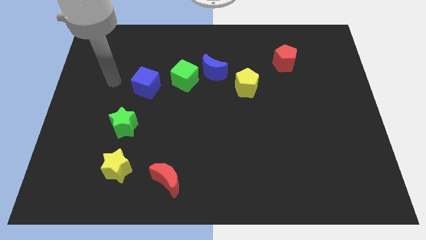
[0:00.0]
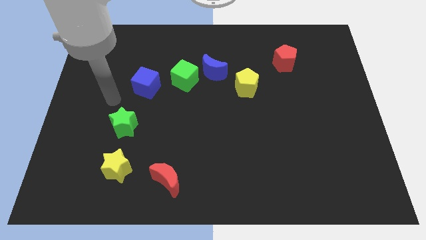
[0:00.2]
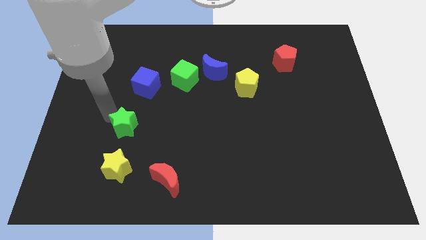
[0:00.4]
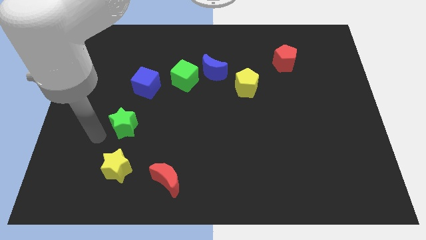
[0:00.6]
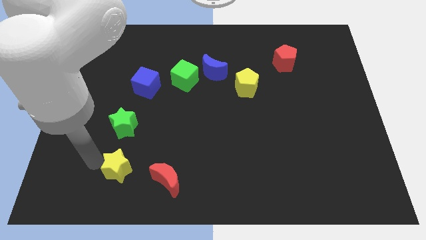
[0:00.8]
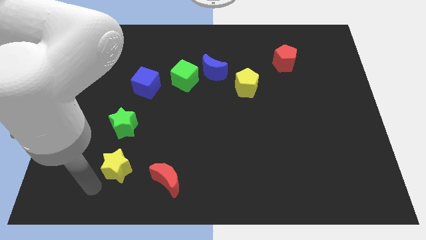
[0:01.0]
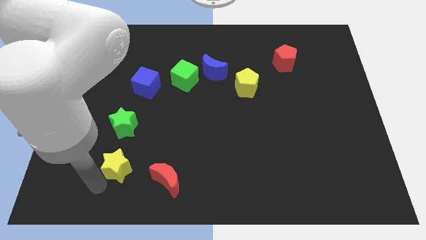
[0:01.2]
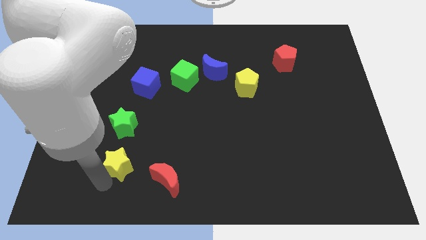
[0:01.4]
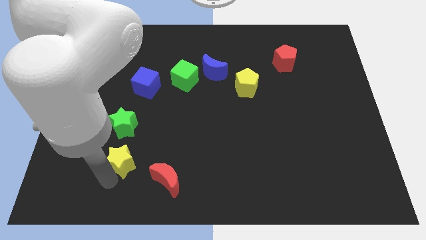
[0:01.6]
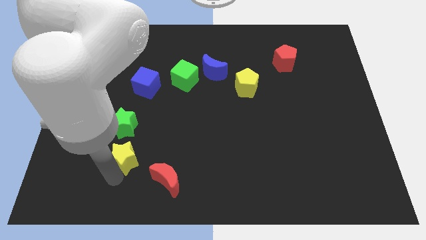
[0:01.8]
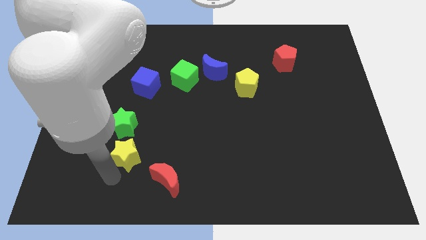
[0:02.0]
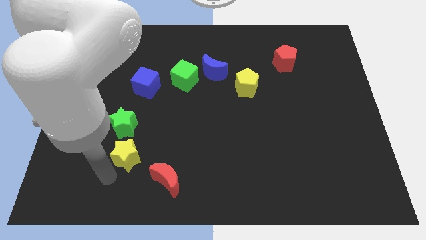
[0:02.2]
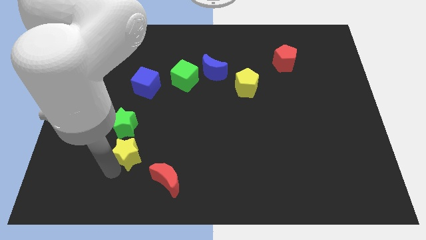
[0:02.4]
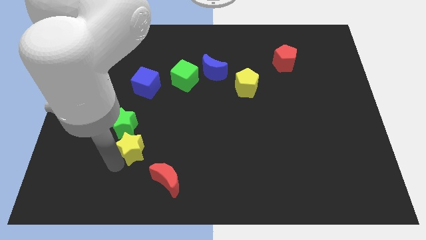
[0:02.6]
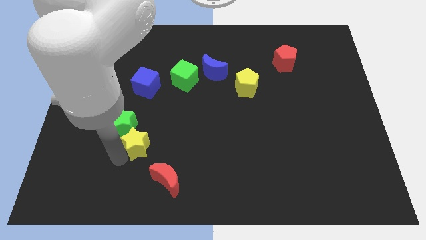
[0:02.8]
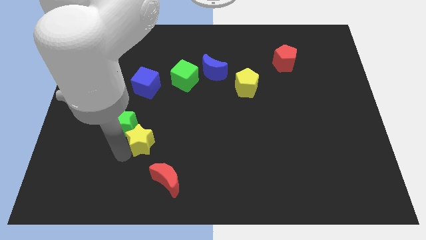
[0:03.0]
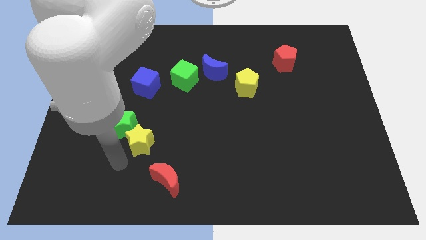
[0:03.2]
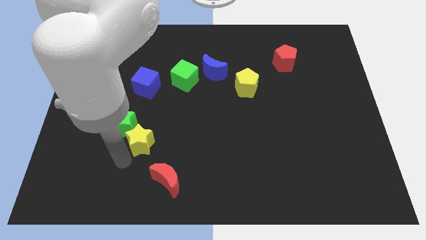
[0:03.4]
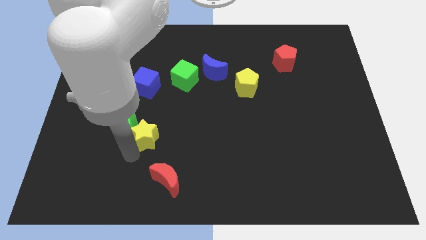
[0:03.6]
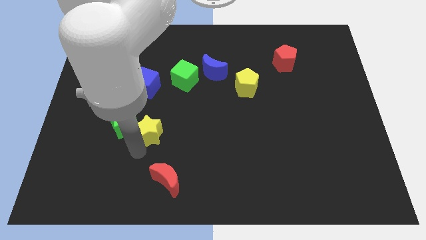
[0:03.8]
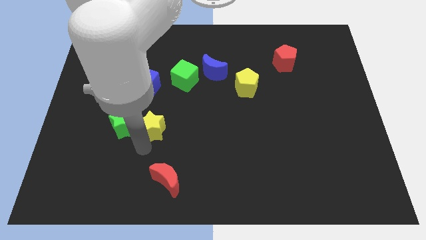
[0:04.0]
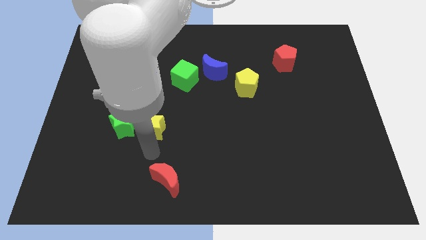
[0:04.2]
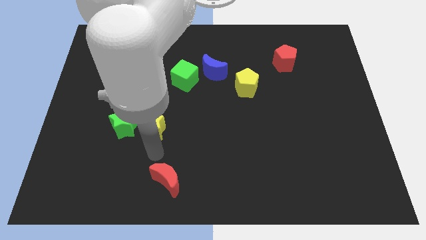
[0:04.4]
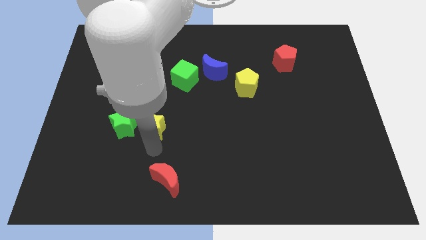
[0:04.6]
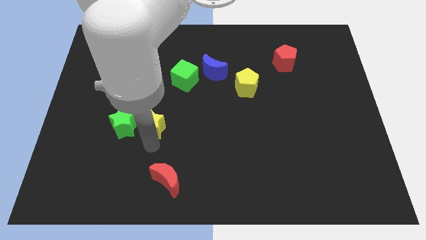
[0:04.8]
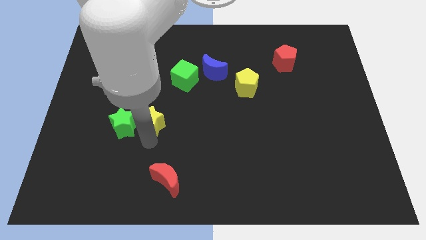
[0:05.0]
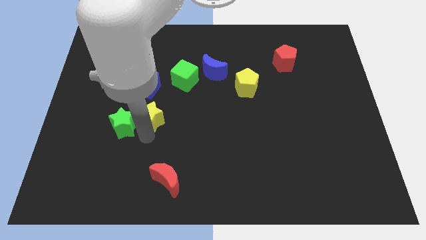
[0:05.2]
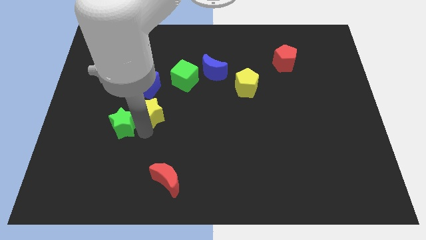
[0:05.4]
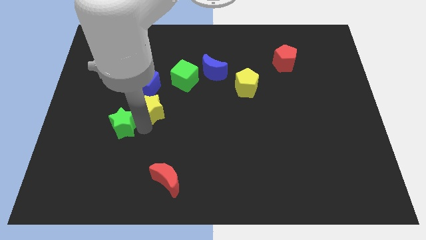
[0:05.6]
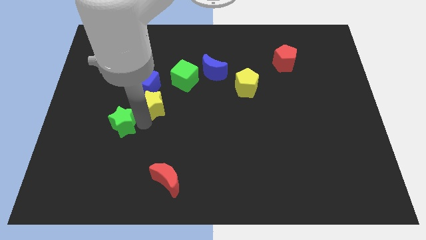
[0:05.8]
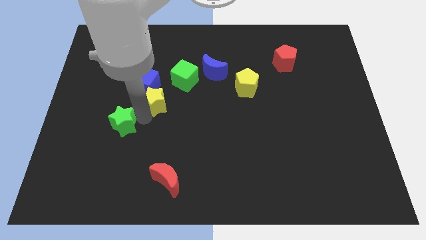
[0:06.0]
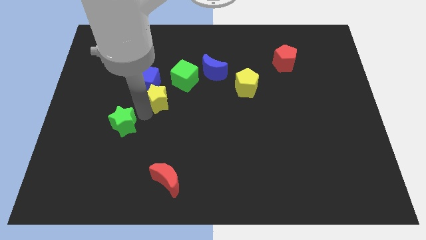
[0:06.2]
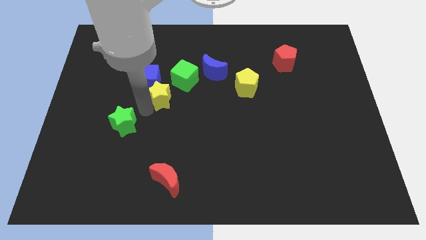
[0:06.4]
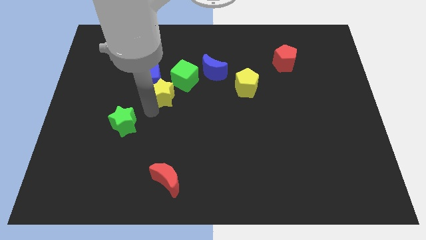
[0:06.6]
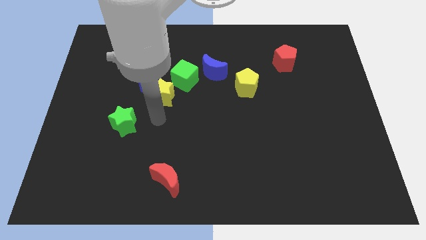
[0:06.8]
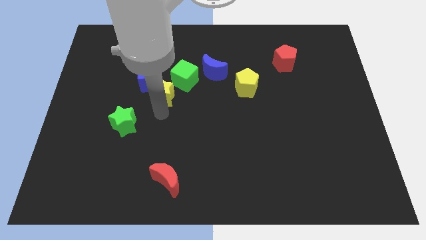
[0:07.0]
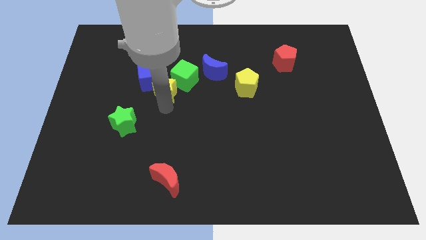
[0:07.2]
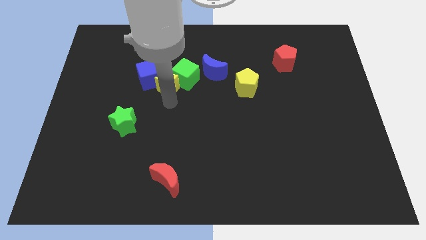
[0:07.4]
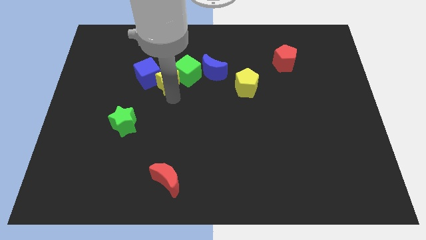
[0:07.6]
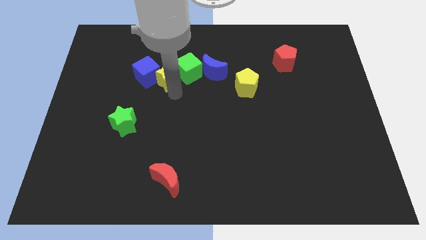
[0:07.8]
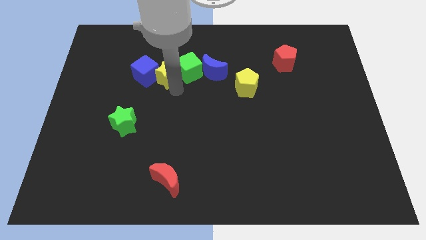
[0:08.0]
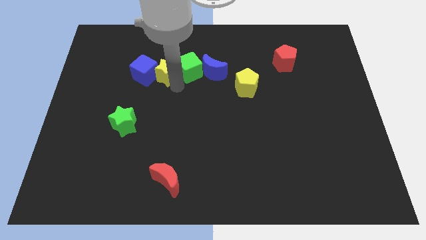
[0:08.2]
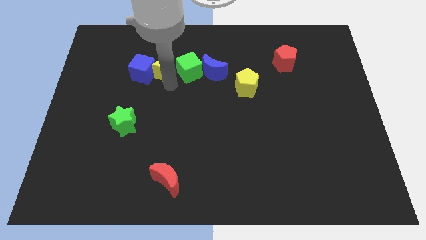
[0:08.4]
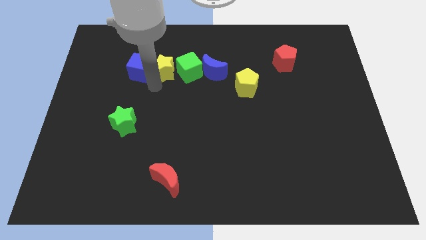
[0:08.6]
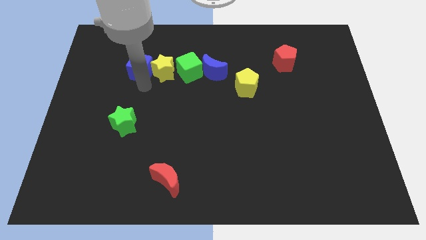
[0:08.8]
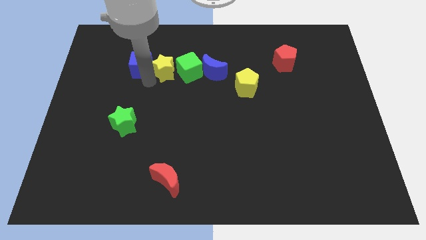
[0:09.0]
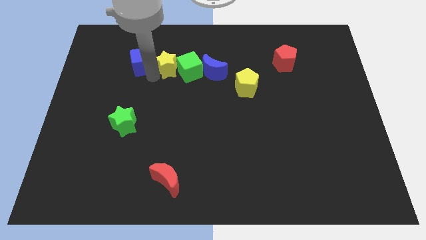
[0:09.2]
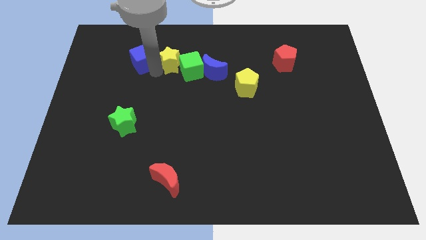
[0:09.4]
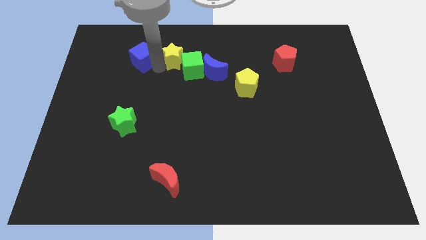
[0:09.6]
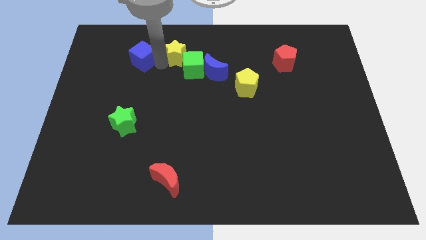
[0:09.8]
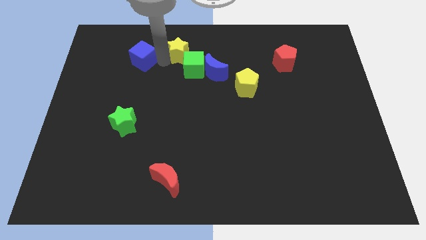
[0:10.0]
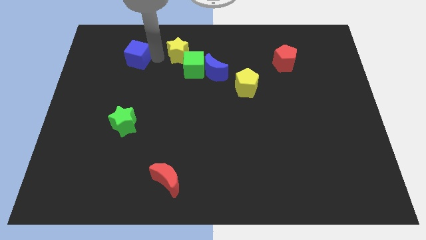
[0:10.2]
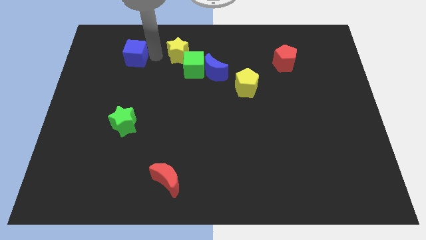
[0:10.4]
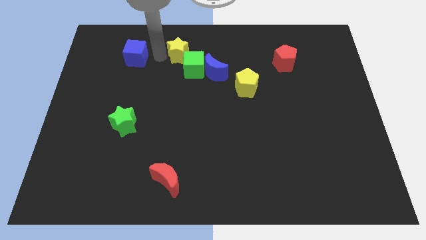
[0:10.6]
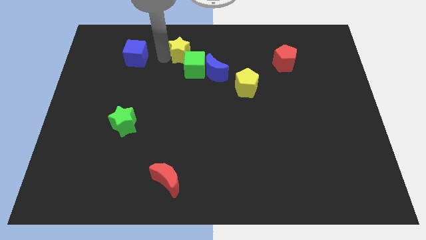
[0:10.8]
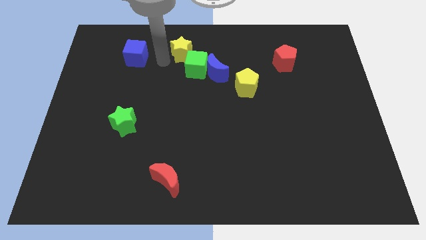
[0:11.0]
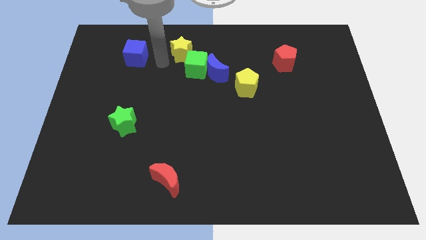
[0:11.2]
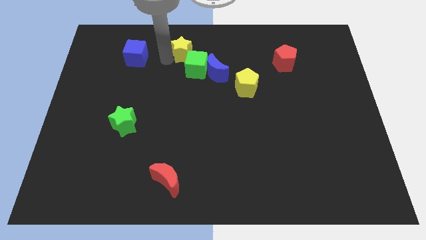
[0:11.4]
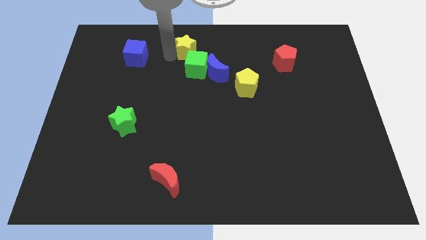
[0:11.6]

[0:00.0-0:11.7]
put the yellow star to the top

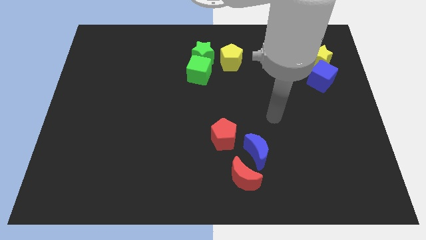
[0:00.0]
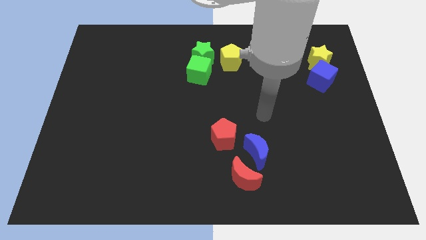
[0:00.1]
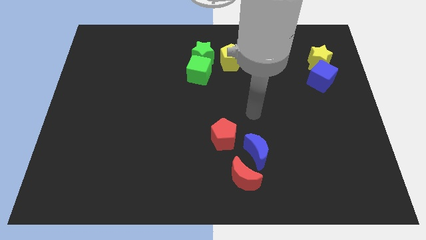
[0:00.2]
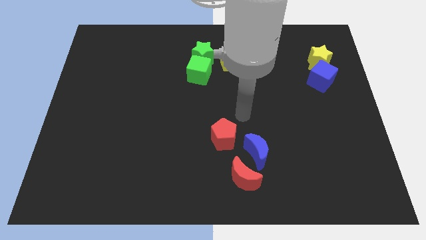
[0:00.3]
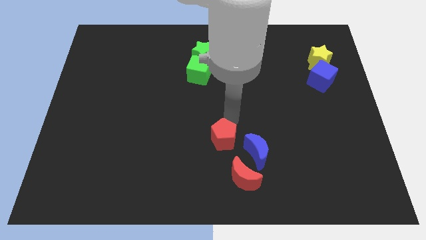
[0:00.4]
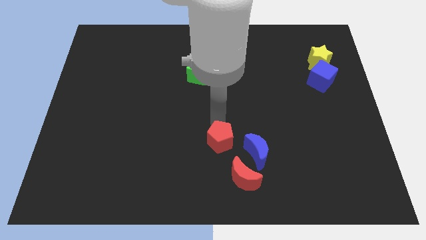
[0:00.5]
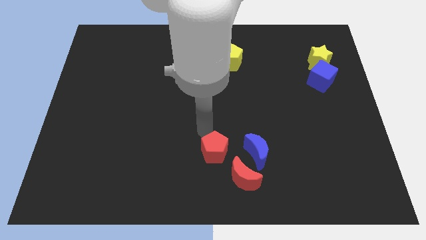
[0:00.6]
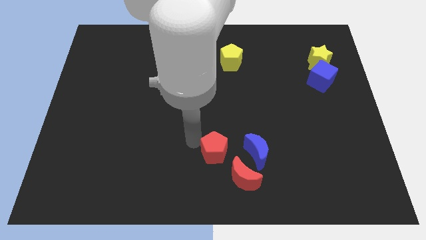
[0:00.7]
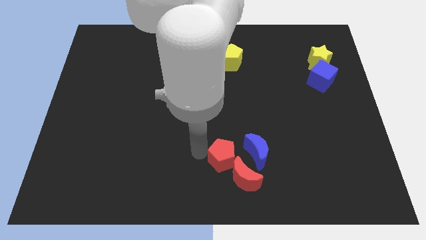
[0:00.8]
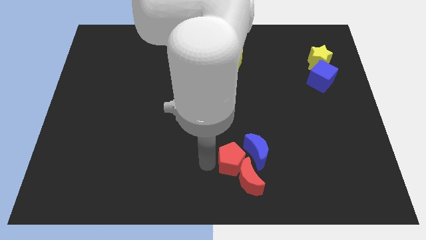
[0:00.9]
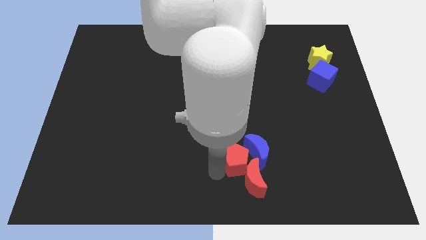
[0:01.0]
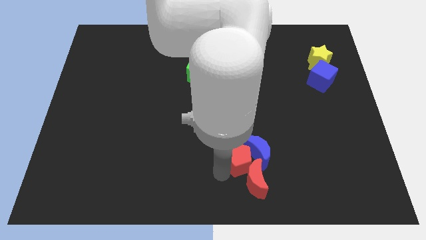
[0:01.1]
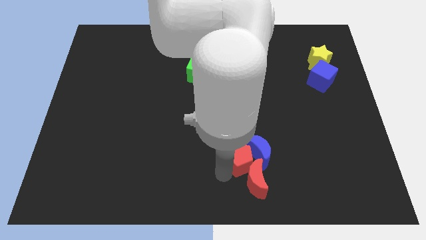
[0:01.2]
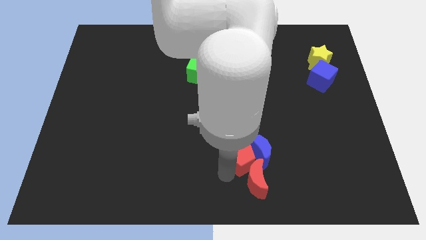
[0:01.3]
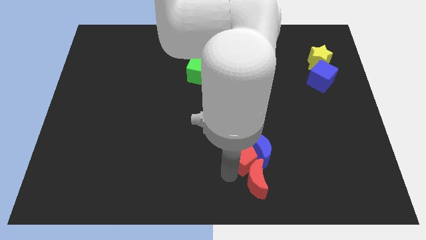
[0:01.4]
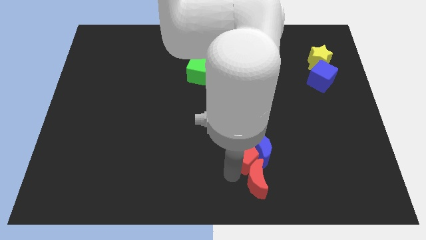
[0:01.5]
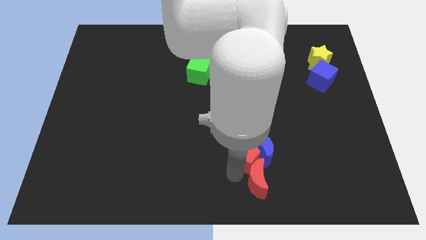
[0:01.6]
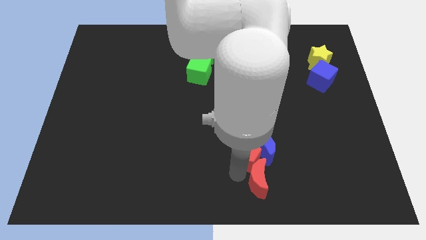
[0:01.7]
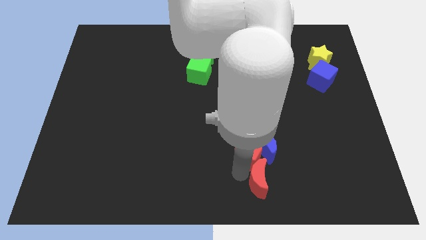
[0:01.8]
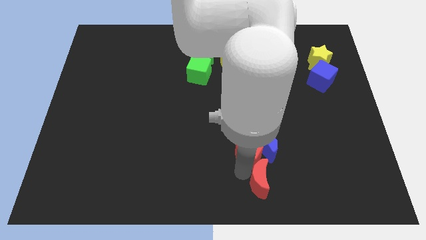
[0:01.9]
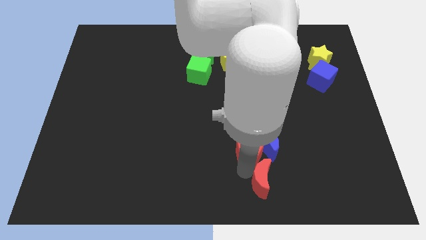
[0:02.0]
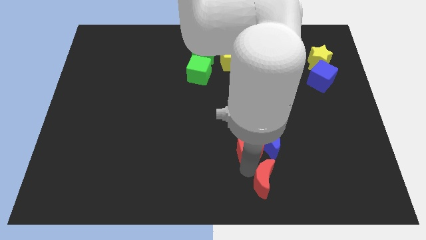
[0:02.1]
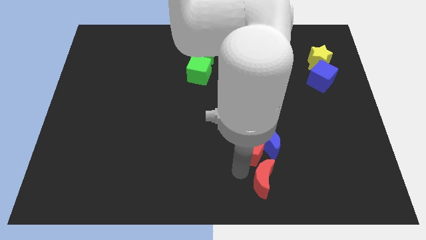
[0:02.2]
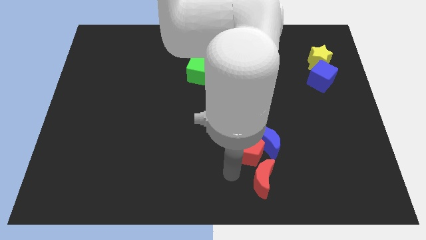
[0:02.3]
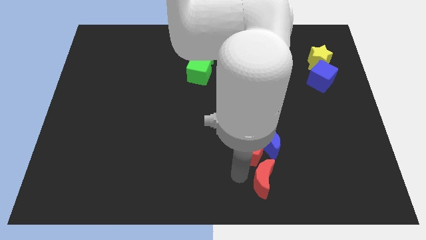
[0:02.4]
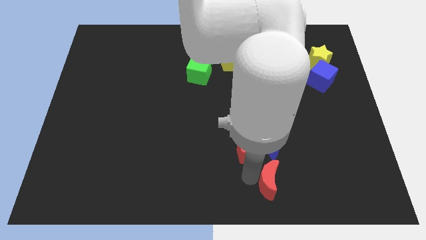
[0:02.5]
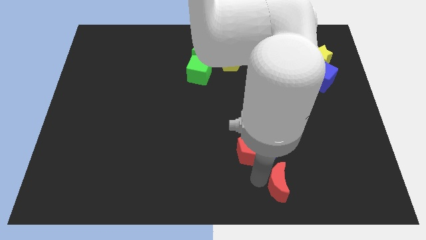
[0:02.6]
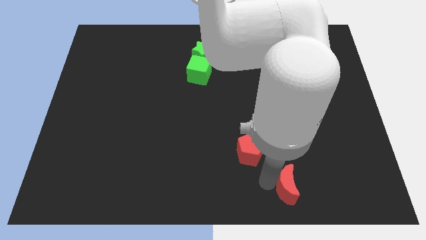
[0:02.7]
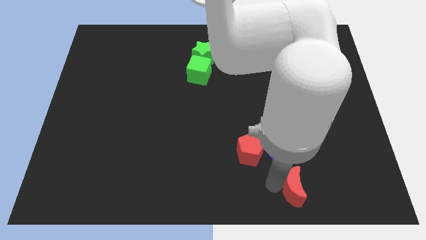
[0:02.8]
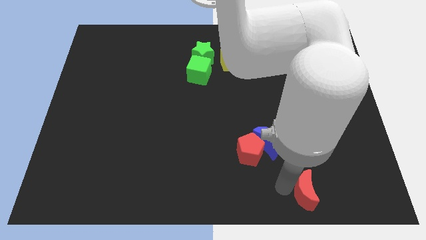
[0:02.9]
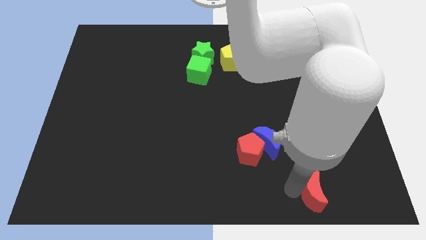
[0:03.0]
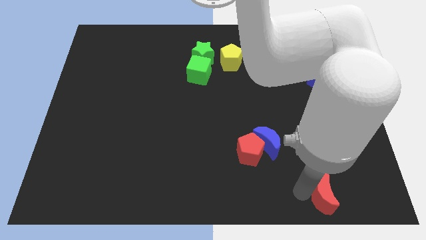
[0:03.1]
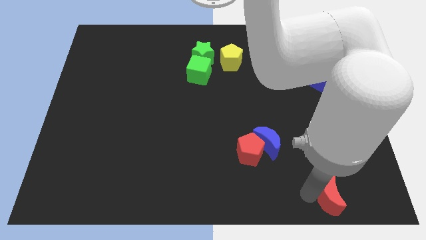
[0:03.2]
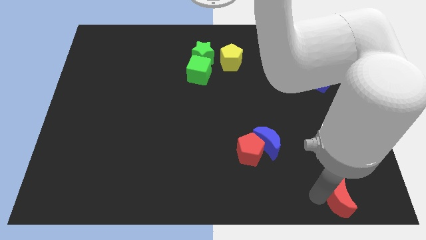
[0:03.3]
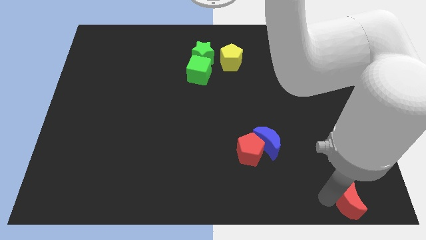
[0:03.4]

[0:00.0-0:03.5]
push the red moon to the bottom right corner
